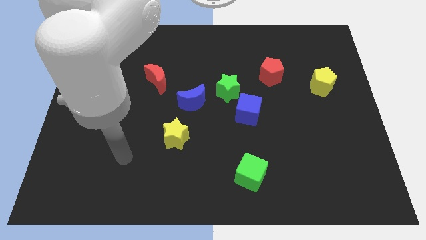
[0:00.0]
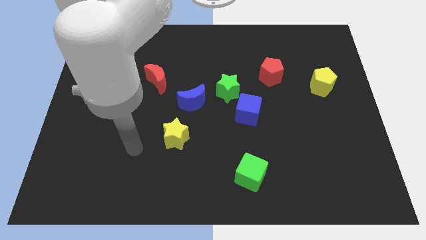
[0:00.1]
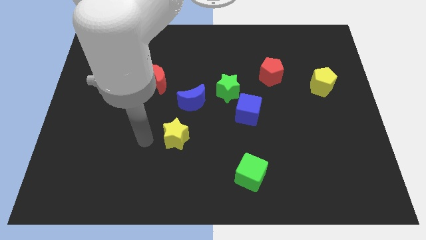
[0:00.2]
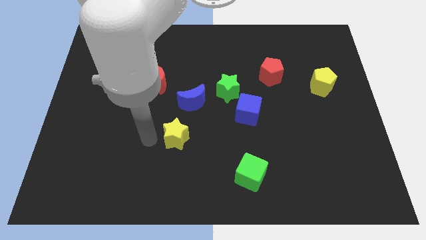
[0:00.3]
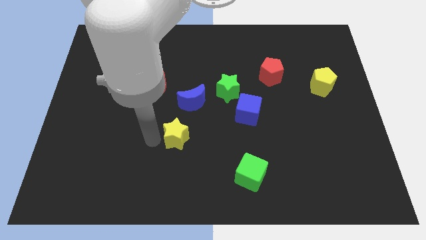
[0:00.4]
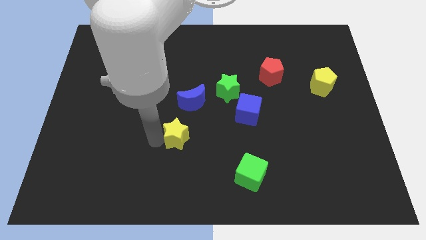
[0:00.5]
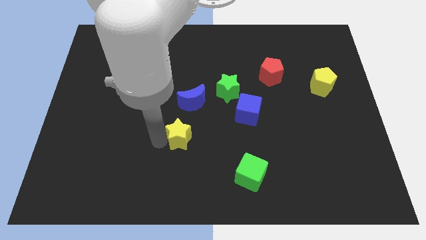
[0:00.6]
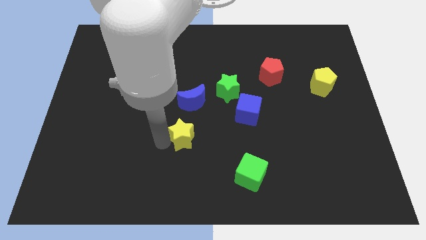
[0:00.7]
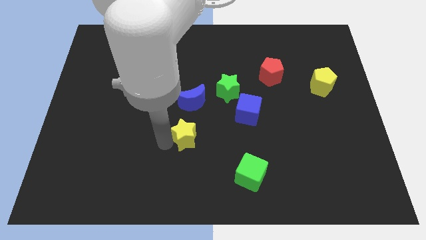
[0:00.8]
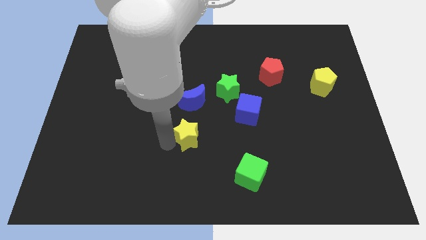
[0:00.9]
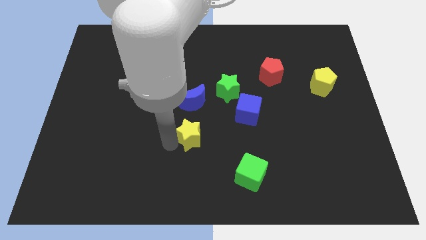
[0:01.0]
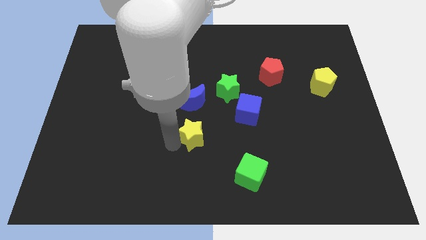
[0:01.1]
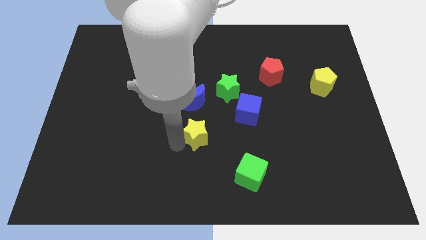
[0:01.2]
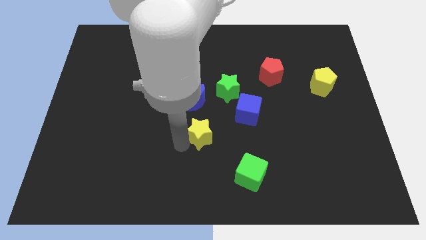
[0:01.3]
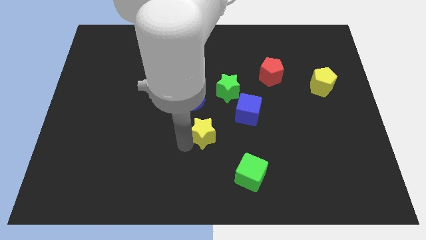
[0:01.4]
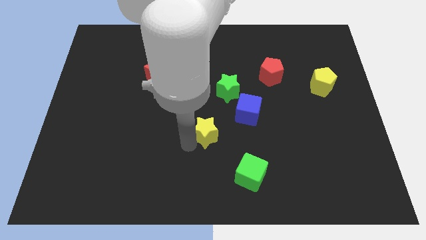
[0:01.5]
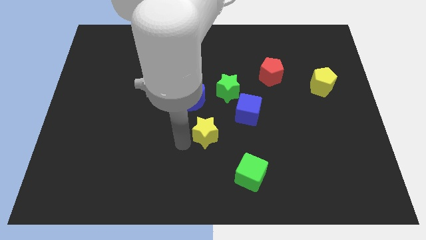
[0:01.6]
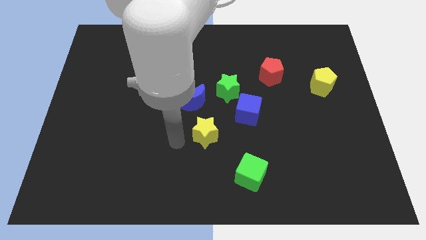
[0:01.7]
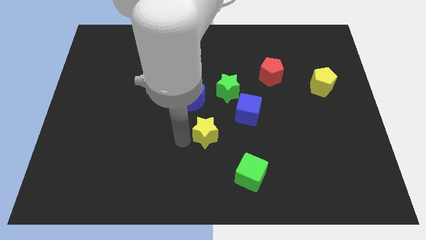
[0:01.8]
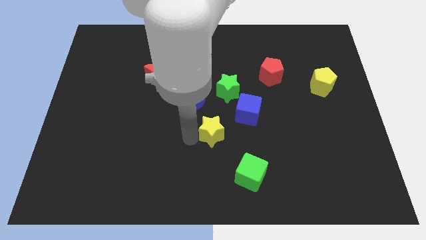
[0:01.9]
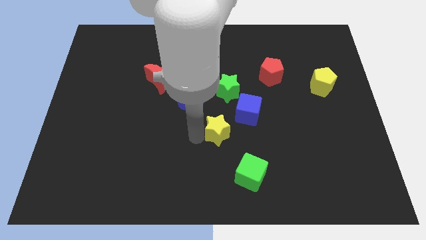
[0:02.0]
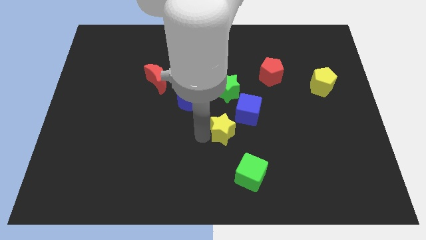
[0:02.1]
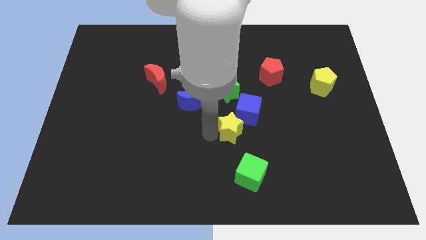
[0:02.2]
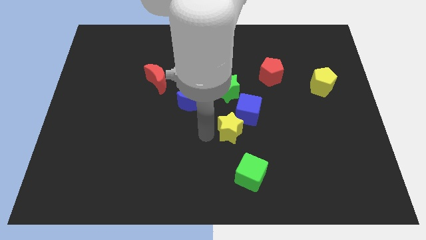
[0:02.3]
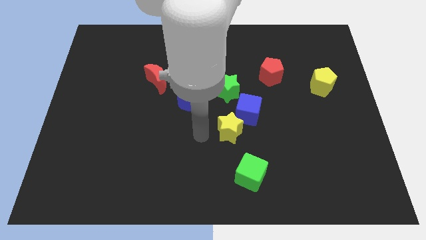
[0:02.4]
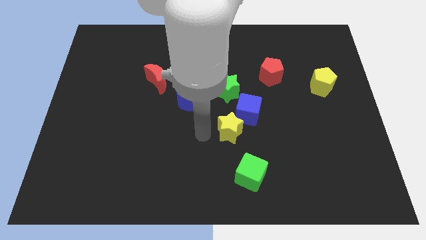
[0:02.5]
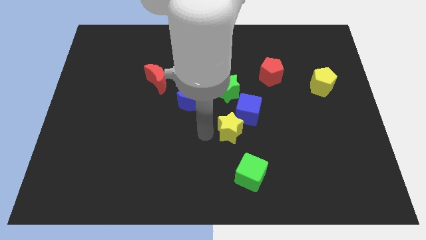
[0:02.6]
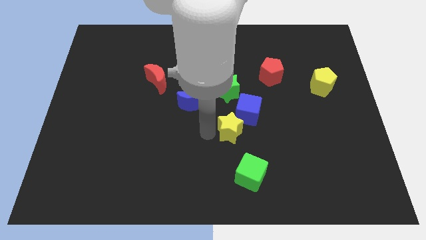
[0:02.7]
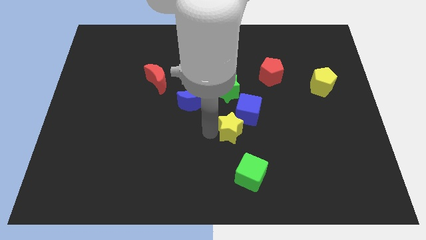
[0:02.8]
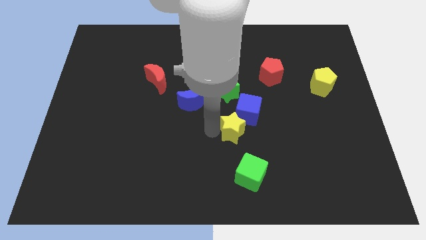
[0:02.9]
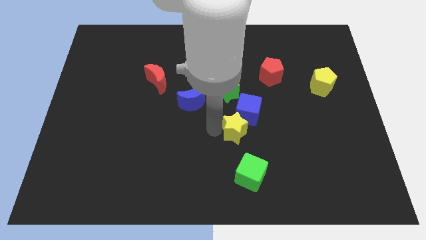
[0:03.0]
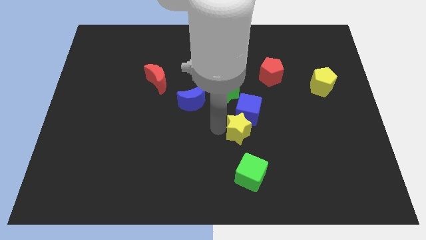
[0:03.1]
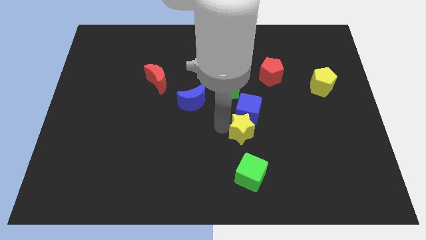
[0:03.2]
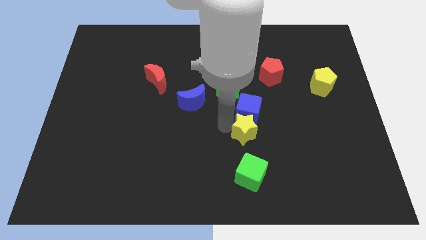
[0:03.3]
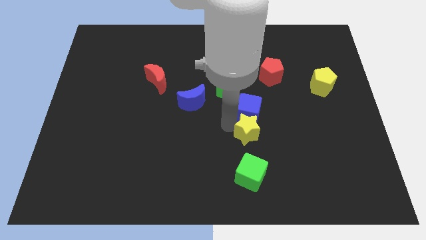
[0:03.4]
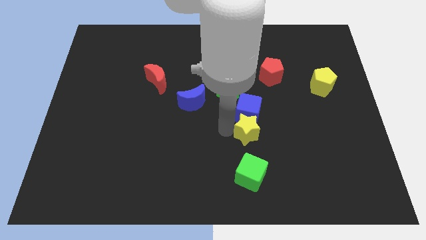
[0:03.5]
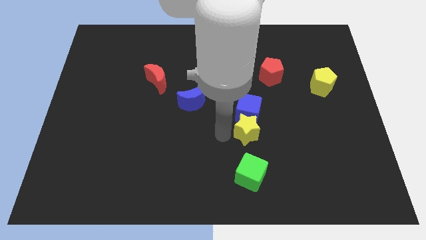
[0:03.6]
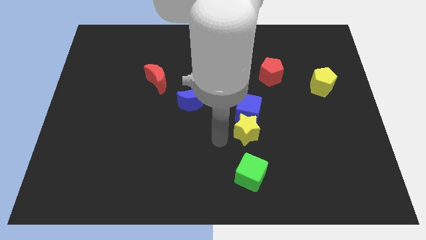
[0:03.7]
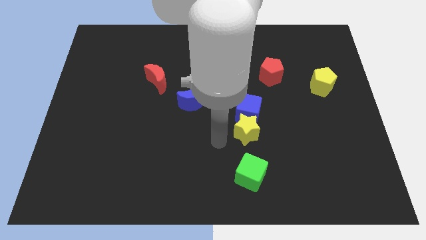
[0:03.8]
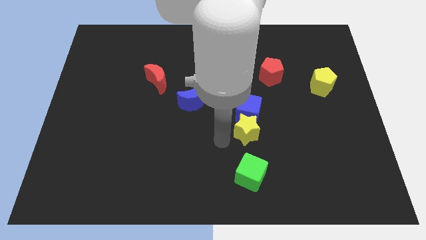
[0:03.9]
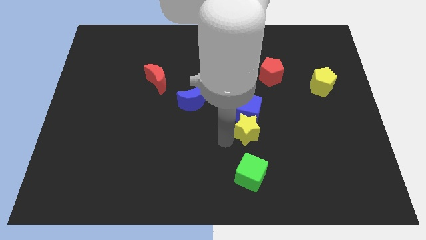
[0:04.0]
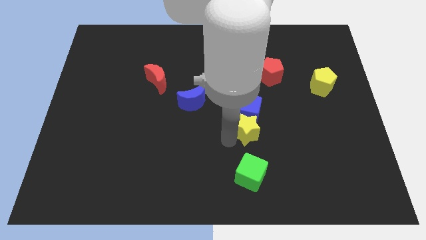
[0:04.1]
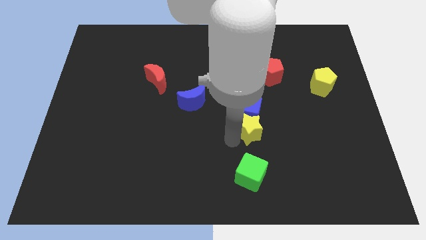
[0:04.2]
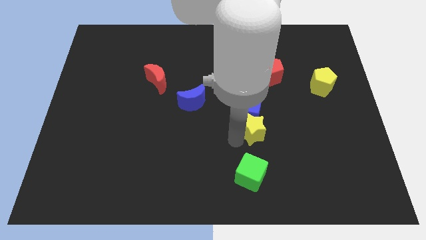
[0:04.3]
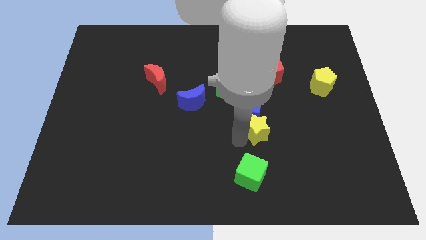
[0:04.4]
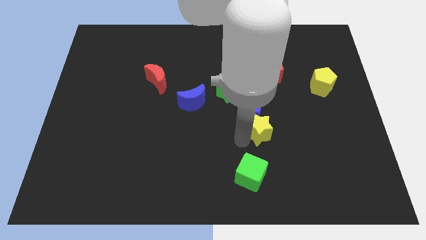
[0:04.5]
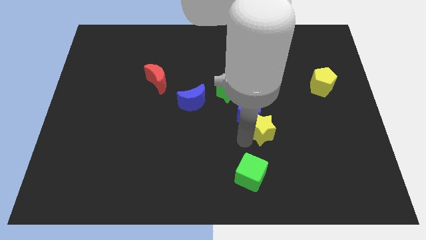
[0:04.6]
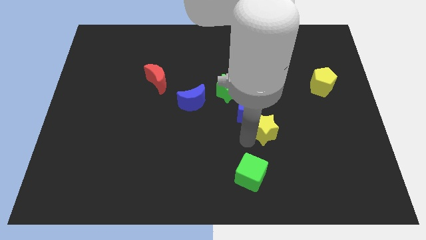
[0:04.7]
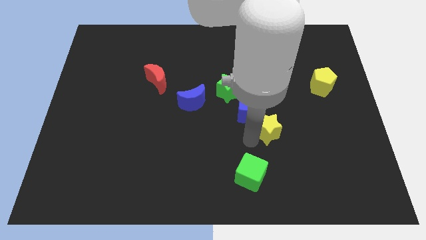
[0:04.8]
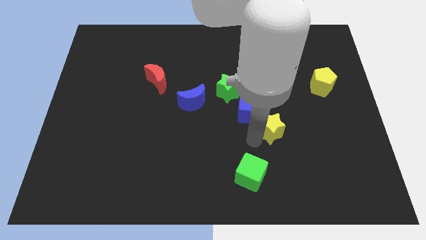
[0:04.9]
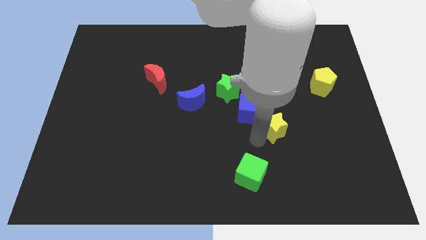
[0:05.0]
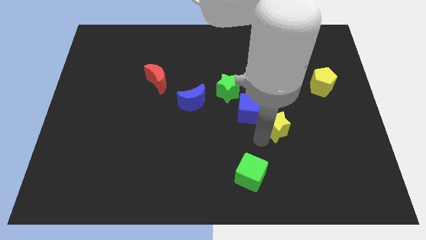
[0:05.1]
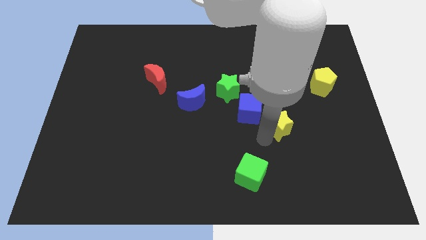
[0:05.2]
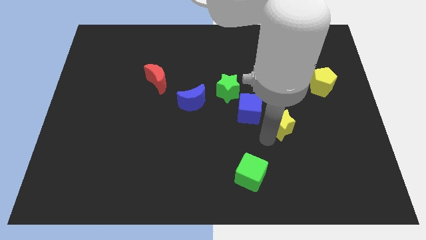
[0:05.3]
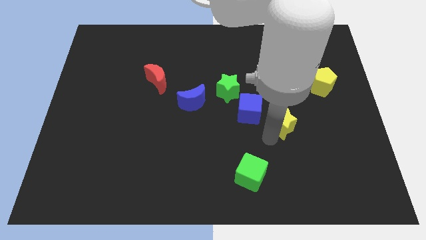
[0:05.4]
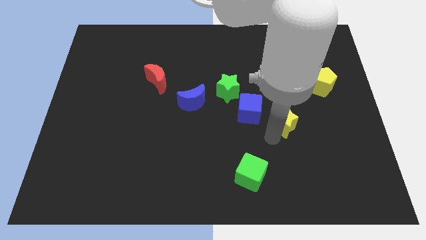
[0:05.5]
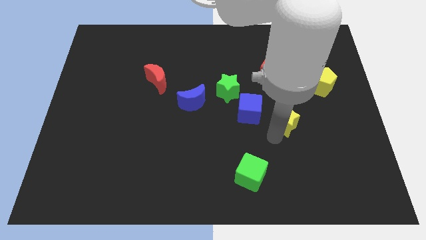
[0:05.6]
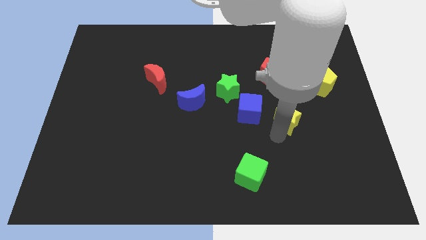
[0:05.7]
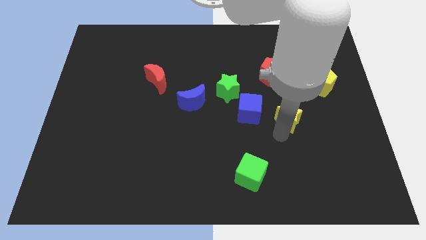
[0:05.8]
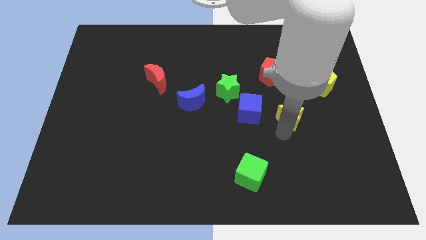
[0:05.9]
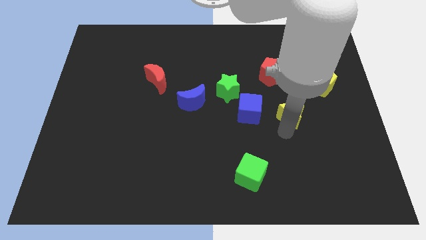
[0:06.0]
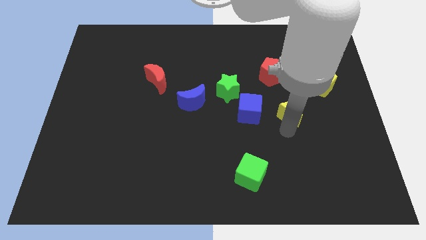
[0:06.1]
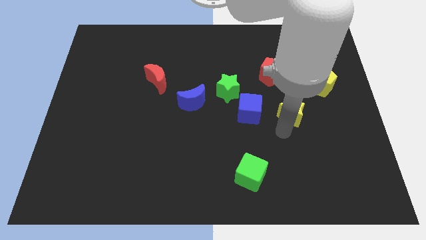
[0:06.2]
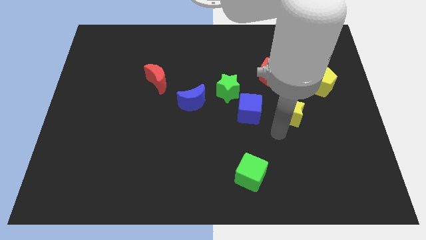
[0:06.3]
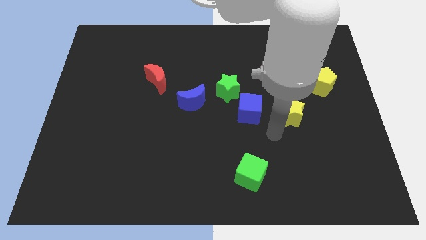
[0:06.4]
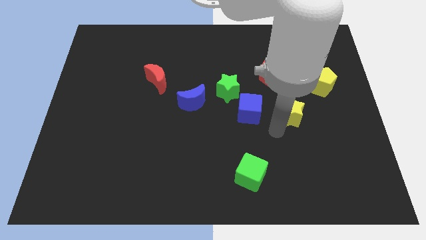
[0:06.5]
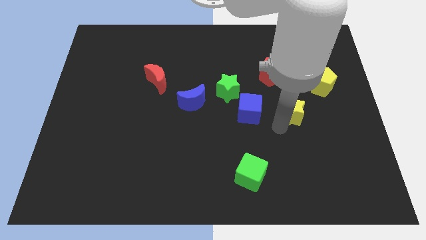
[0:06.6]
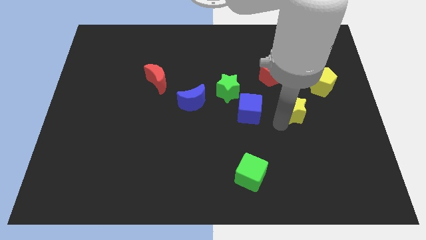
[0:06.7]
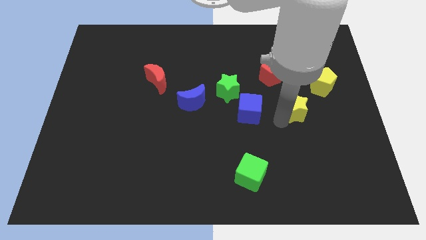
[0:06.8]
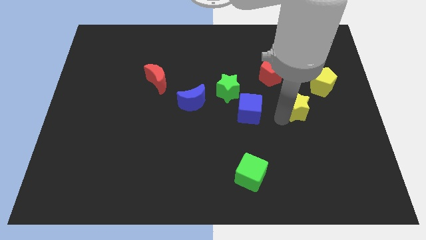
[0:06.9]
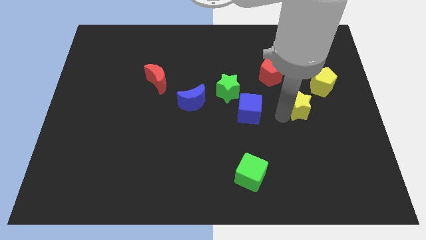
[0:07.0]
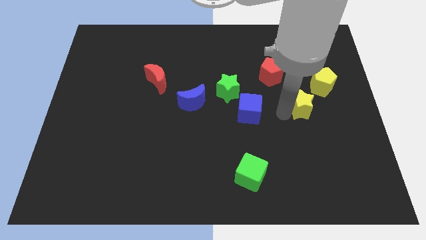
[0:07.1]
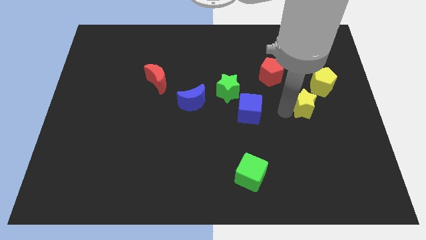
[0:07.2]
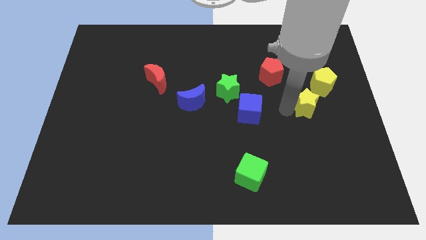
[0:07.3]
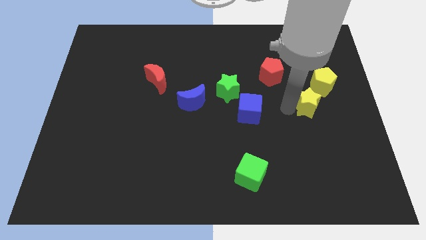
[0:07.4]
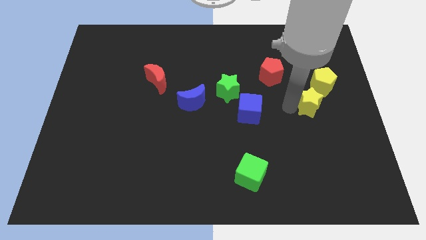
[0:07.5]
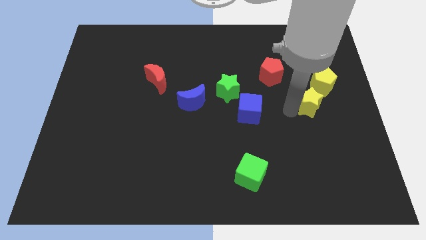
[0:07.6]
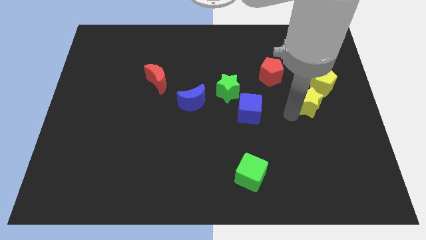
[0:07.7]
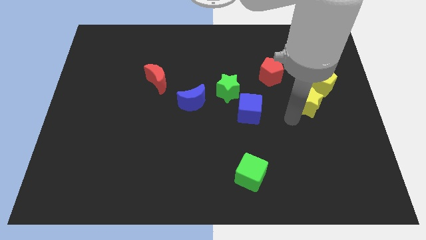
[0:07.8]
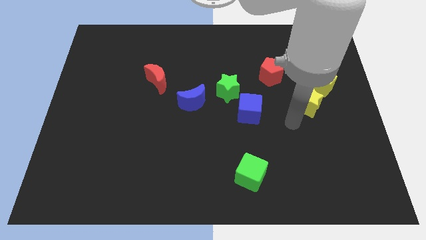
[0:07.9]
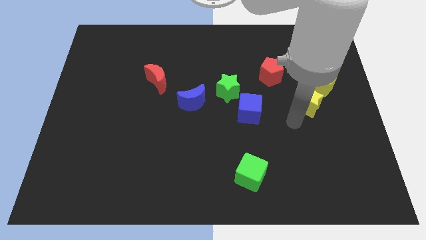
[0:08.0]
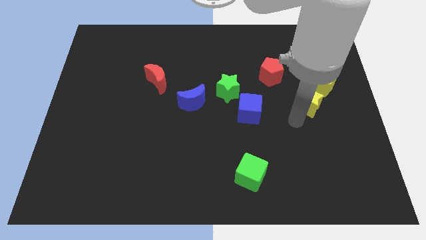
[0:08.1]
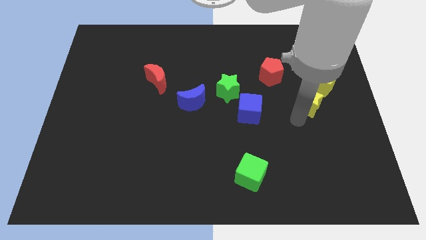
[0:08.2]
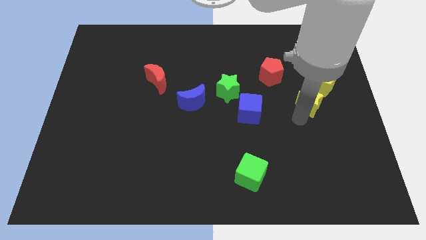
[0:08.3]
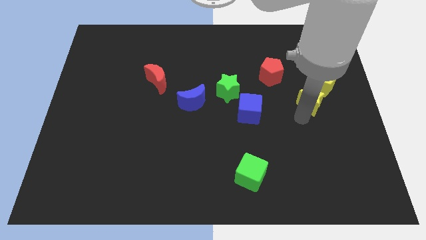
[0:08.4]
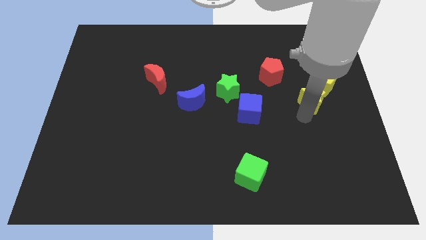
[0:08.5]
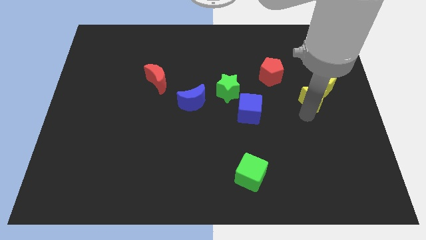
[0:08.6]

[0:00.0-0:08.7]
slide the yellow star towards the yellow pentagon
